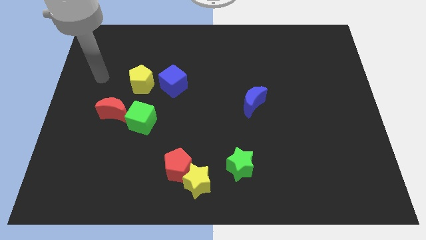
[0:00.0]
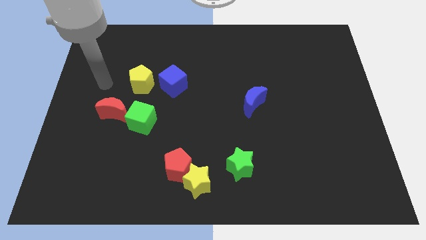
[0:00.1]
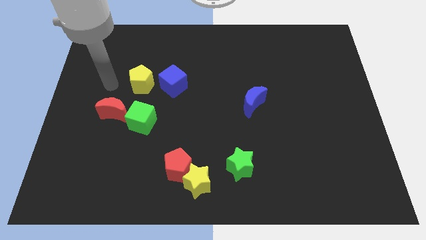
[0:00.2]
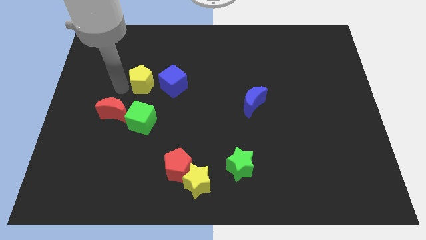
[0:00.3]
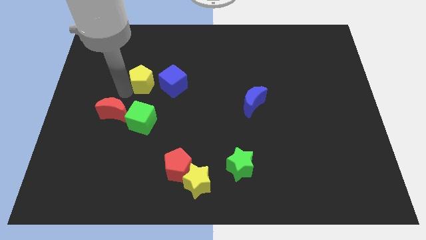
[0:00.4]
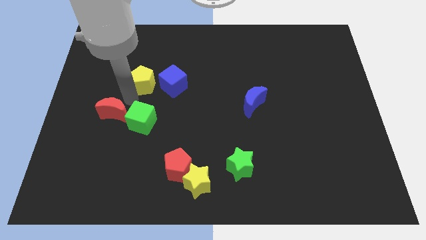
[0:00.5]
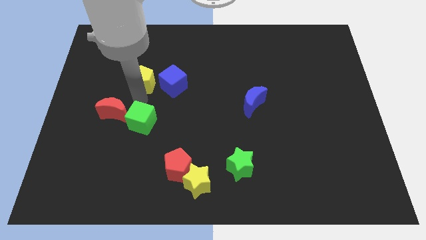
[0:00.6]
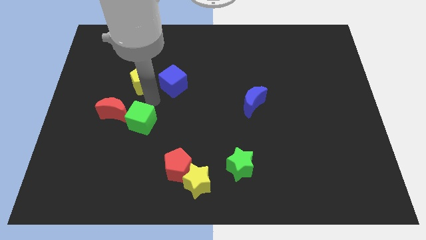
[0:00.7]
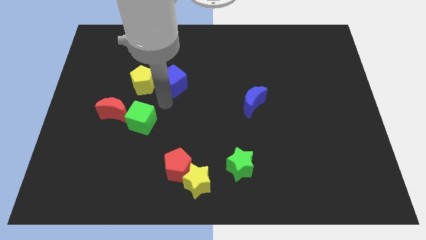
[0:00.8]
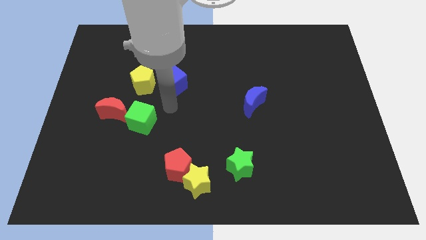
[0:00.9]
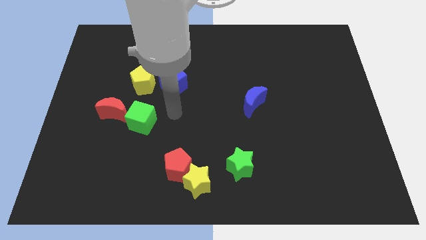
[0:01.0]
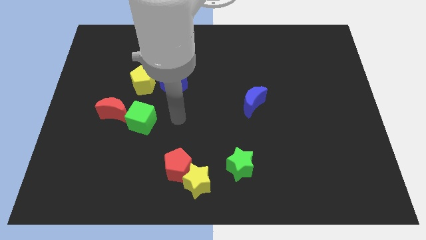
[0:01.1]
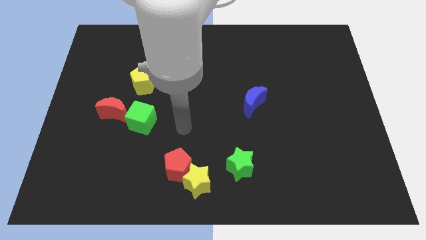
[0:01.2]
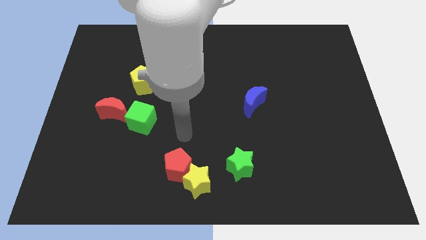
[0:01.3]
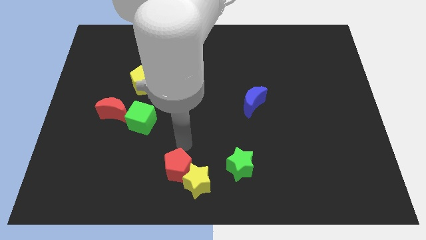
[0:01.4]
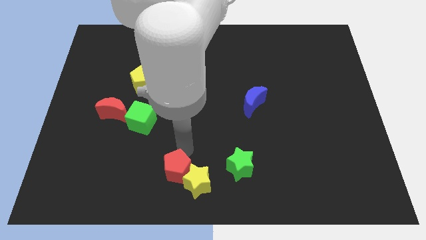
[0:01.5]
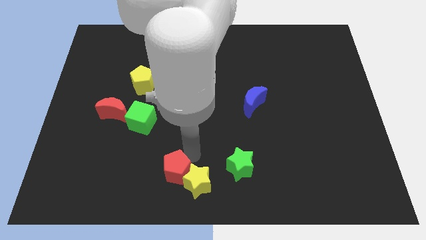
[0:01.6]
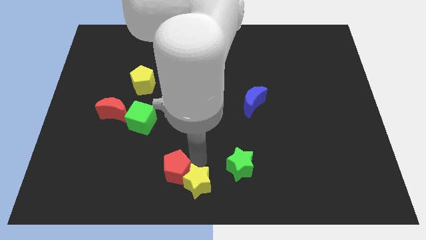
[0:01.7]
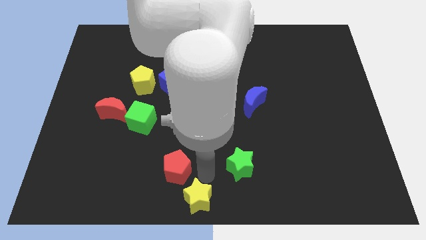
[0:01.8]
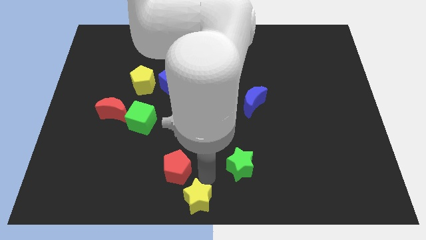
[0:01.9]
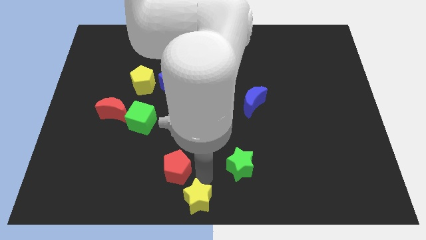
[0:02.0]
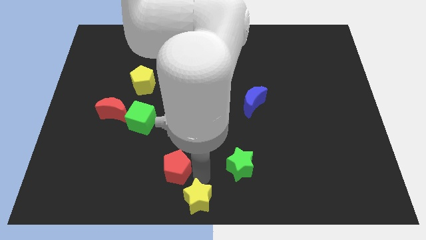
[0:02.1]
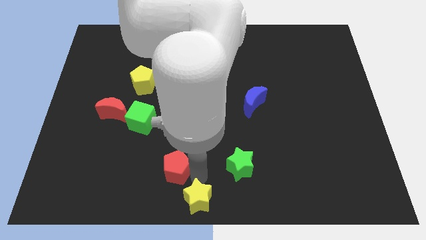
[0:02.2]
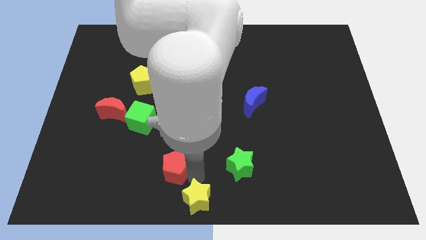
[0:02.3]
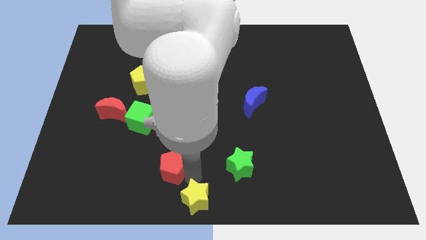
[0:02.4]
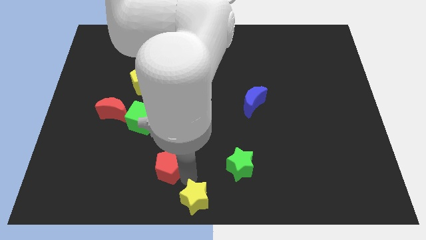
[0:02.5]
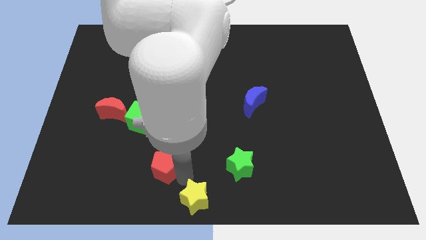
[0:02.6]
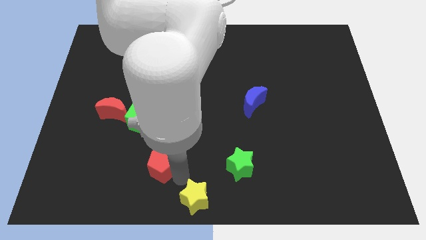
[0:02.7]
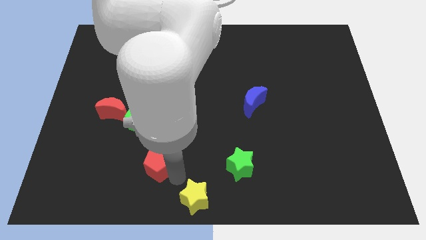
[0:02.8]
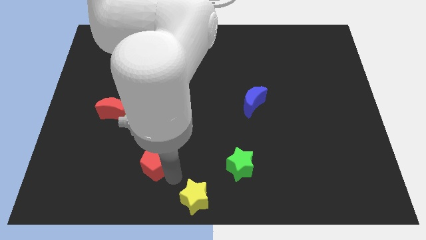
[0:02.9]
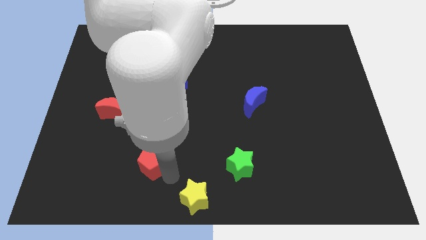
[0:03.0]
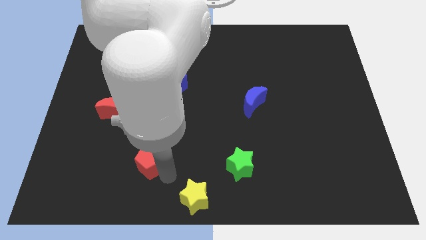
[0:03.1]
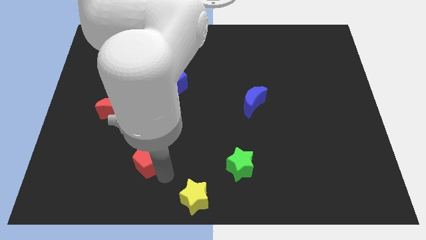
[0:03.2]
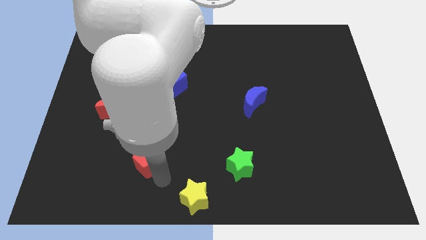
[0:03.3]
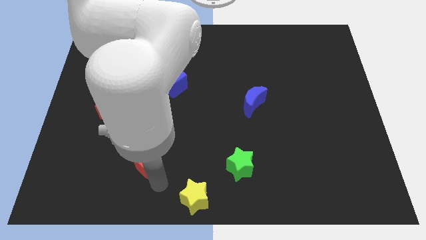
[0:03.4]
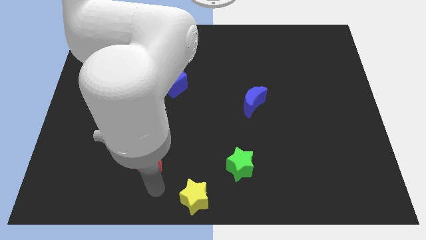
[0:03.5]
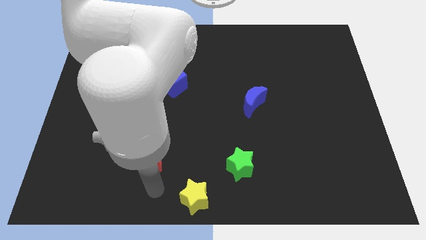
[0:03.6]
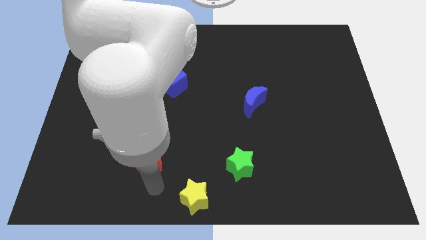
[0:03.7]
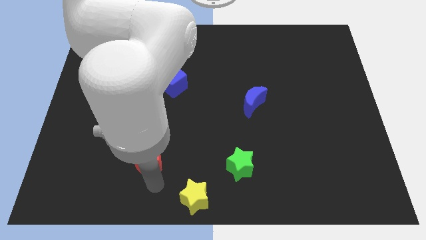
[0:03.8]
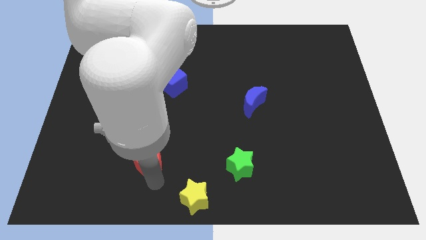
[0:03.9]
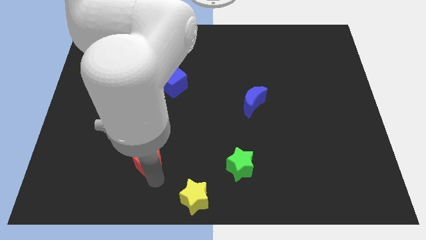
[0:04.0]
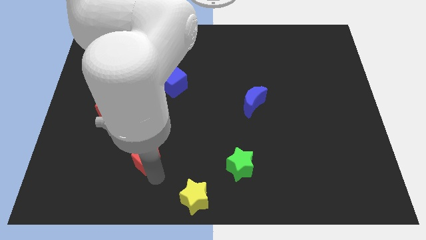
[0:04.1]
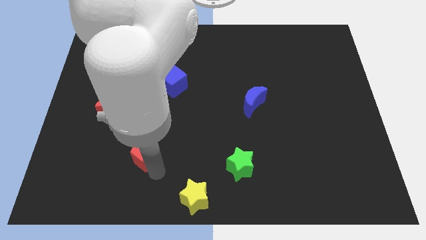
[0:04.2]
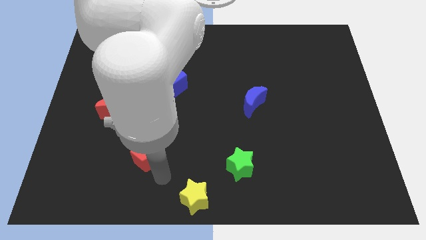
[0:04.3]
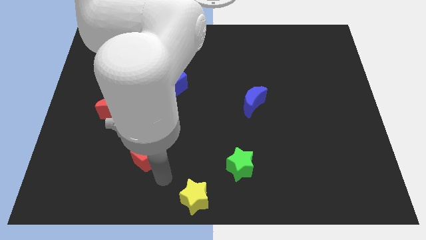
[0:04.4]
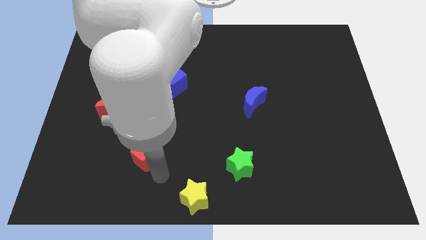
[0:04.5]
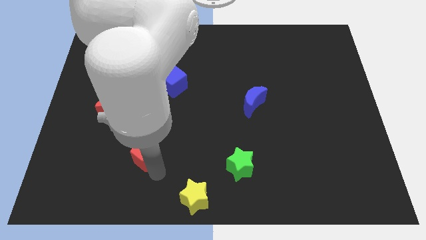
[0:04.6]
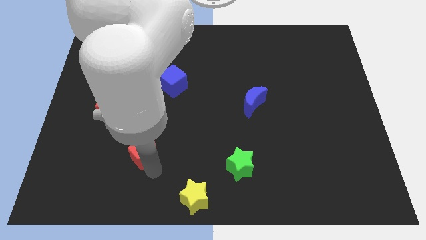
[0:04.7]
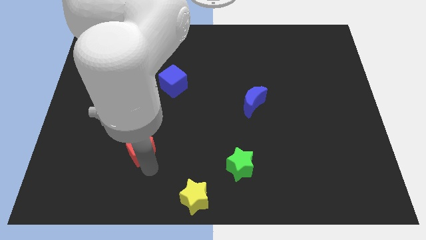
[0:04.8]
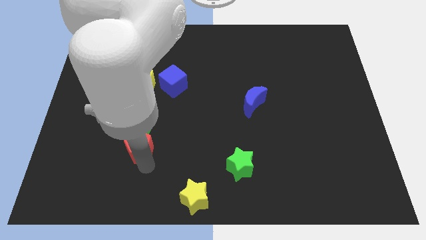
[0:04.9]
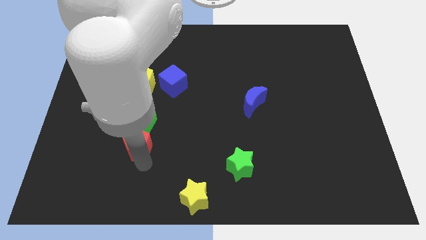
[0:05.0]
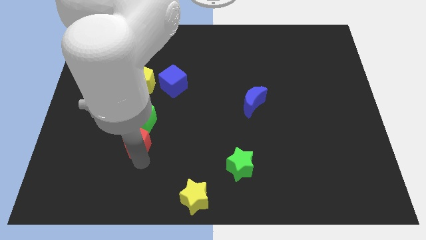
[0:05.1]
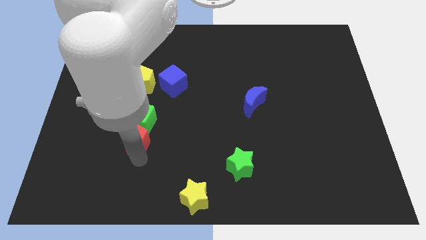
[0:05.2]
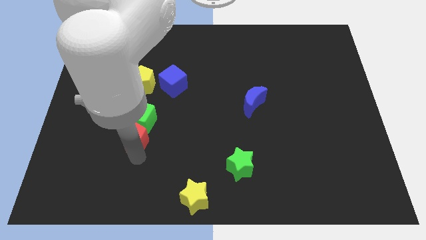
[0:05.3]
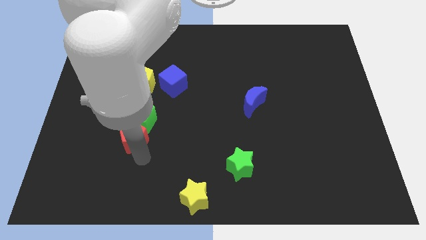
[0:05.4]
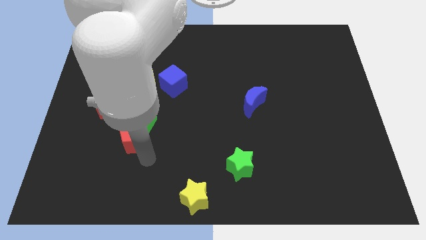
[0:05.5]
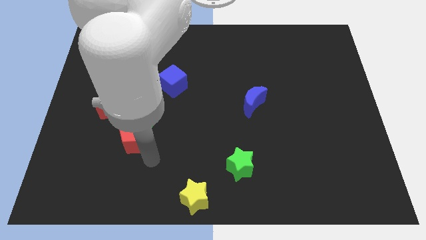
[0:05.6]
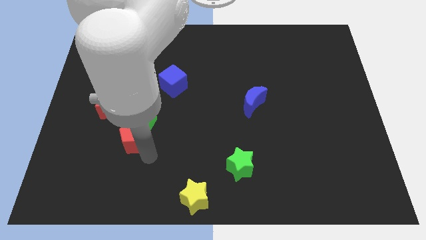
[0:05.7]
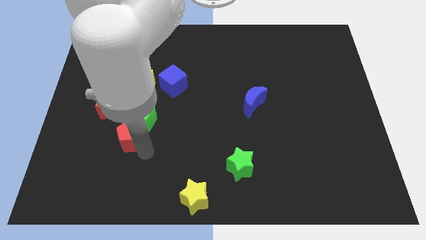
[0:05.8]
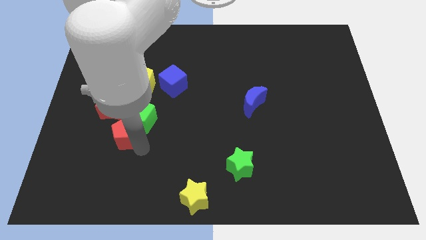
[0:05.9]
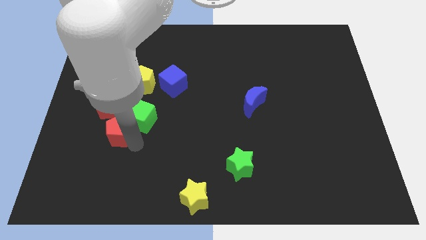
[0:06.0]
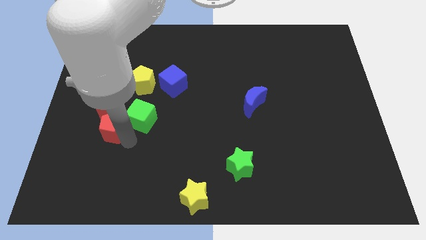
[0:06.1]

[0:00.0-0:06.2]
slide the red pentagon towards the red moon

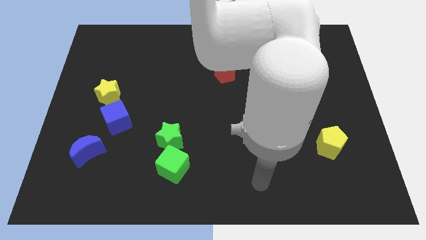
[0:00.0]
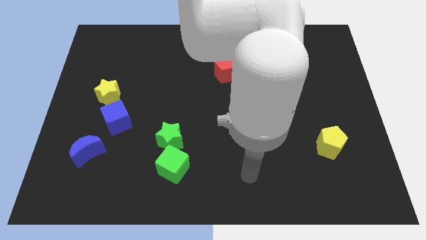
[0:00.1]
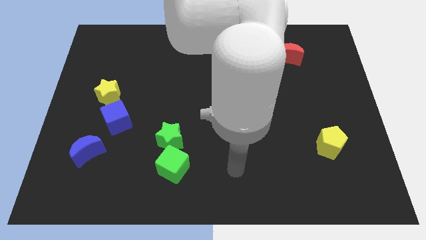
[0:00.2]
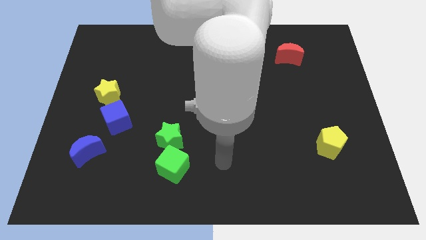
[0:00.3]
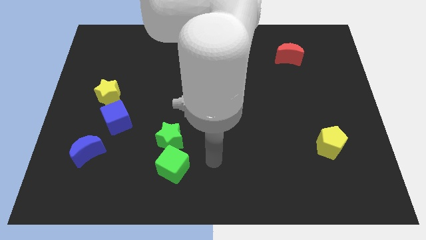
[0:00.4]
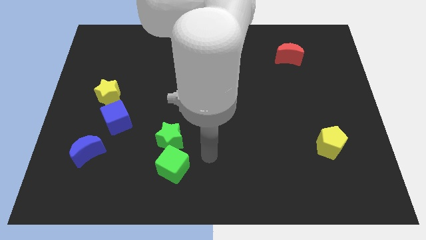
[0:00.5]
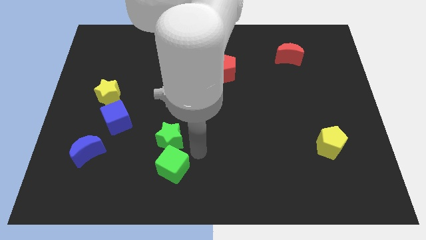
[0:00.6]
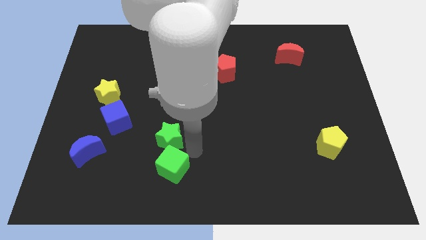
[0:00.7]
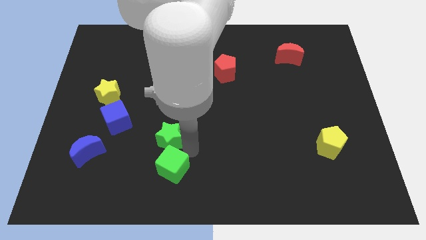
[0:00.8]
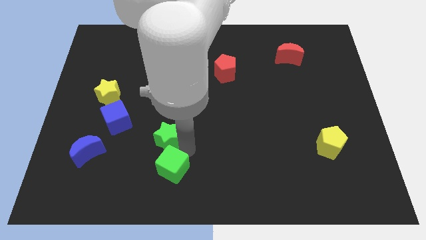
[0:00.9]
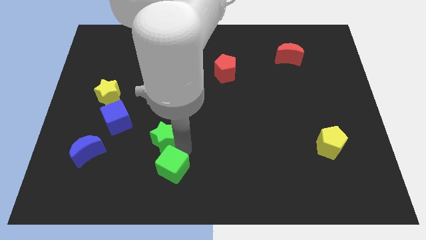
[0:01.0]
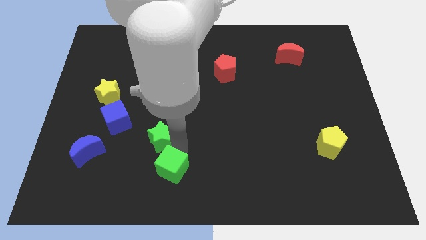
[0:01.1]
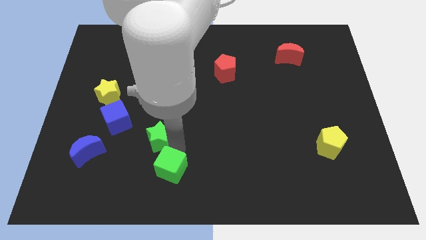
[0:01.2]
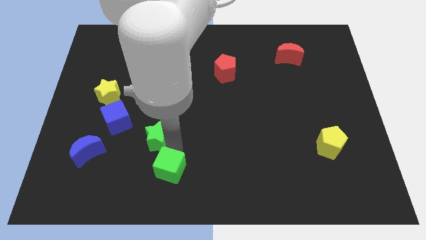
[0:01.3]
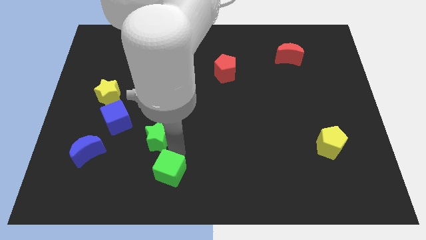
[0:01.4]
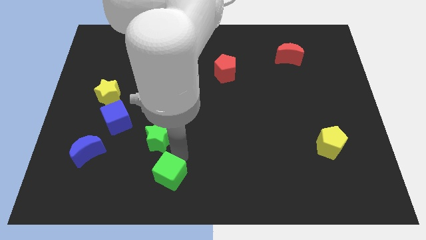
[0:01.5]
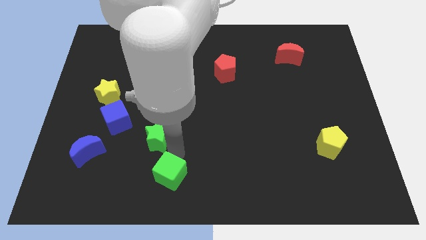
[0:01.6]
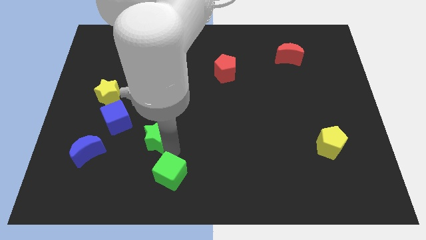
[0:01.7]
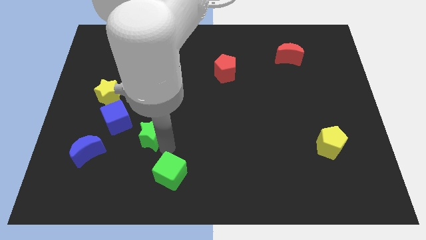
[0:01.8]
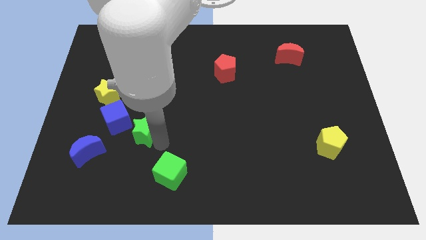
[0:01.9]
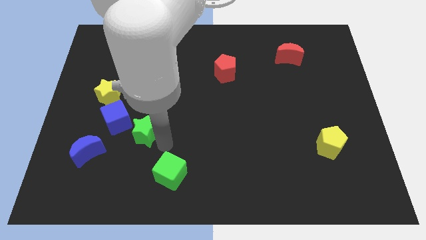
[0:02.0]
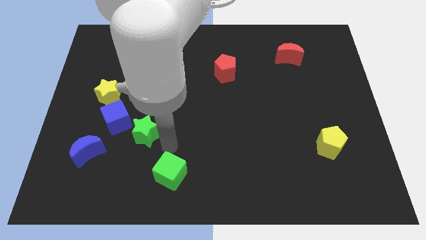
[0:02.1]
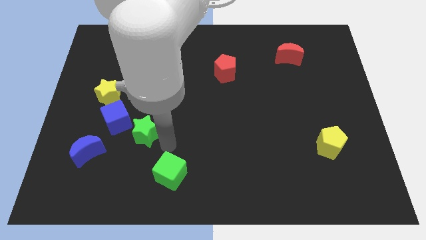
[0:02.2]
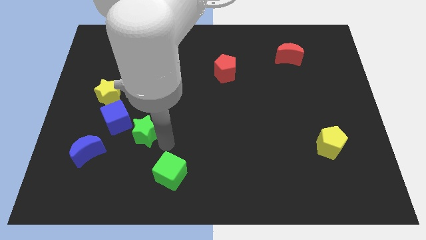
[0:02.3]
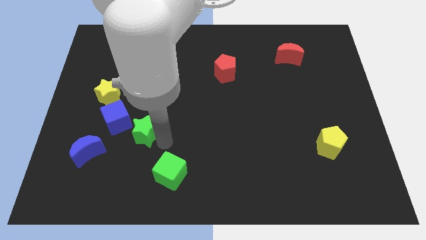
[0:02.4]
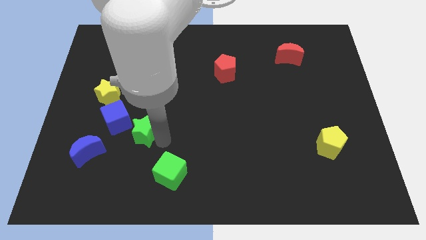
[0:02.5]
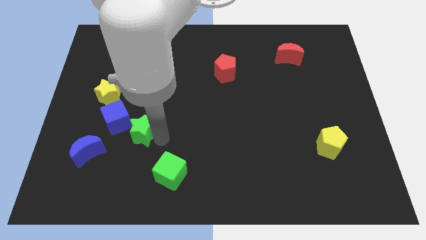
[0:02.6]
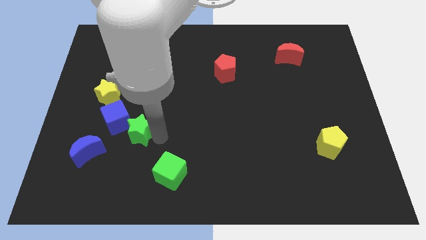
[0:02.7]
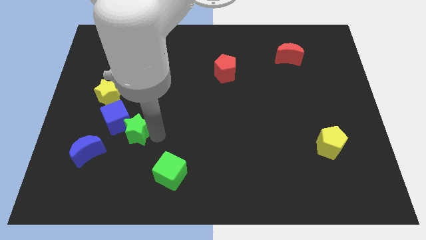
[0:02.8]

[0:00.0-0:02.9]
slide the green star close to the blue cube
